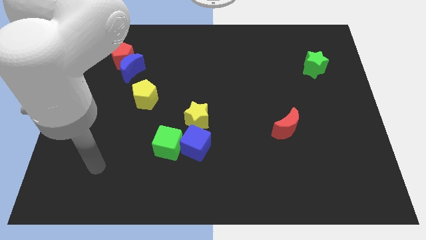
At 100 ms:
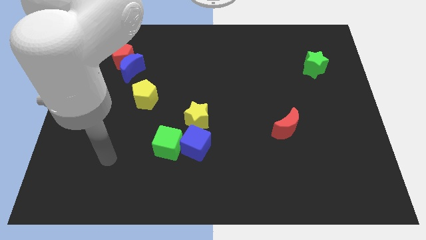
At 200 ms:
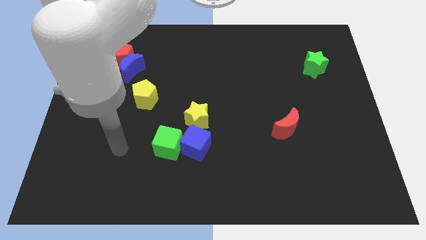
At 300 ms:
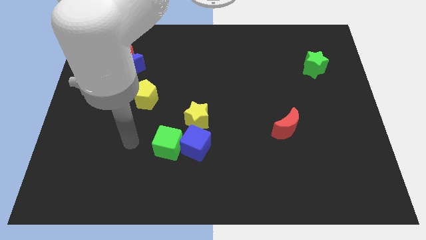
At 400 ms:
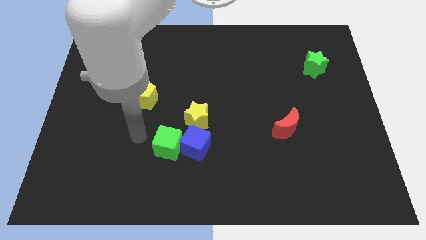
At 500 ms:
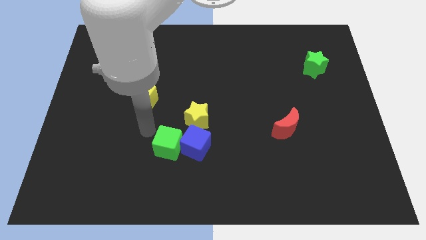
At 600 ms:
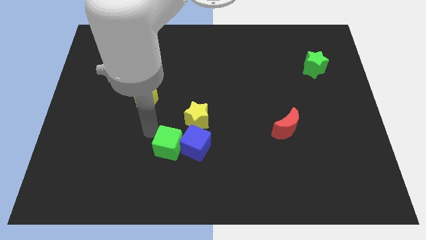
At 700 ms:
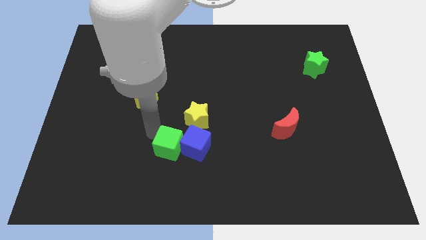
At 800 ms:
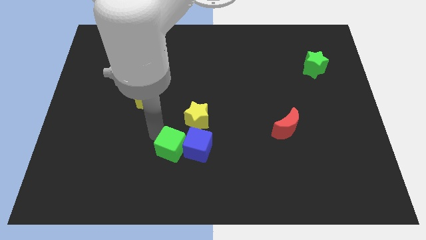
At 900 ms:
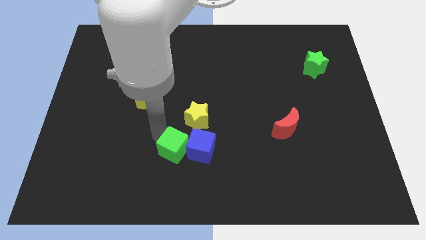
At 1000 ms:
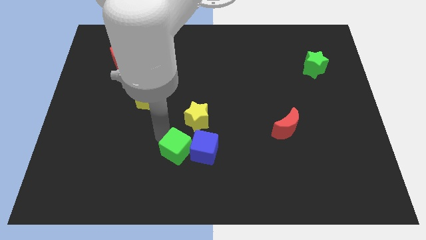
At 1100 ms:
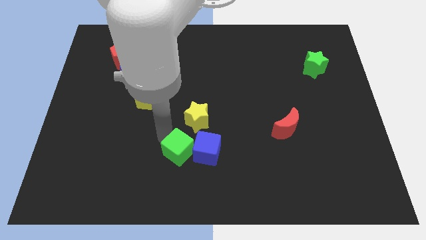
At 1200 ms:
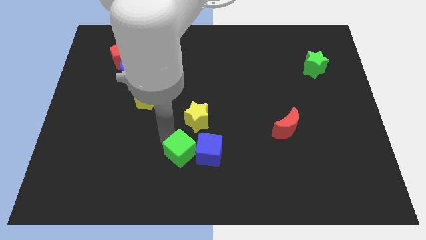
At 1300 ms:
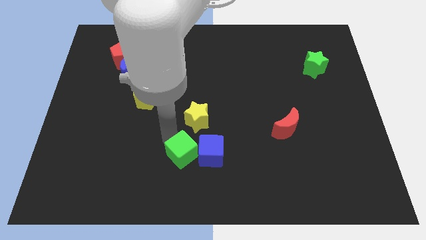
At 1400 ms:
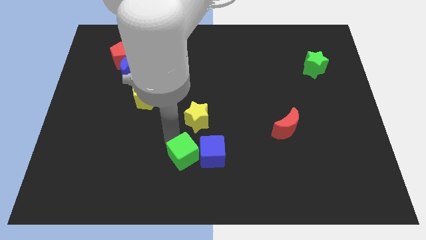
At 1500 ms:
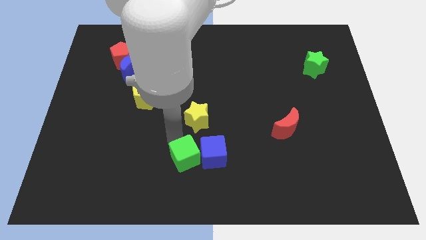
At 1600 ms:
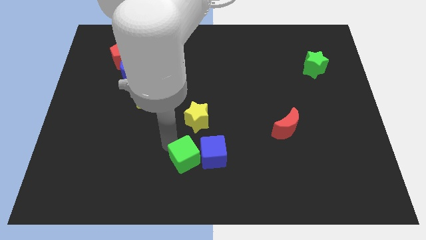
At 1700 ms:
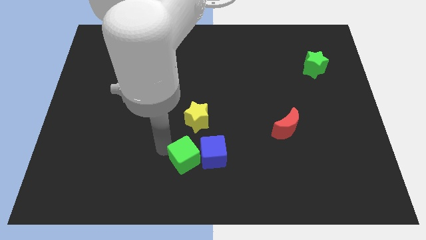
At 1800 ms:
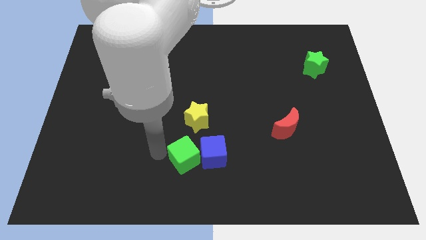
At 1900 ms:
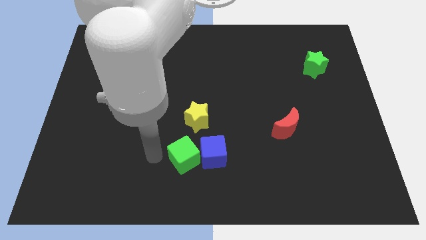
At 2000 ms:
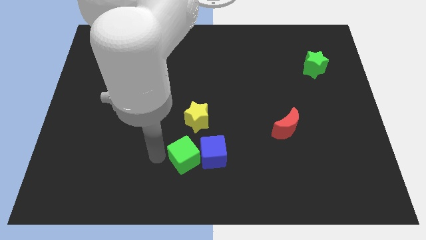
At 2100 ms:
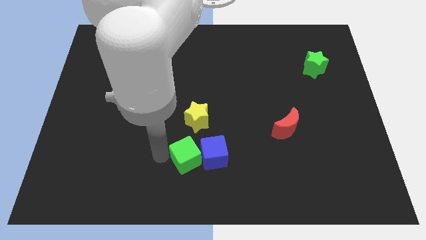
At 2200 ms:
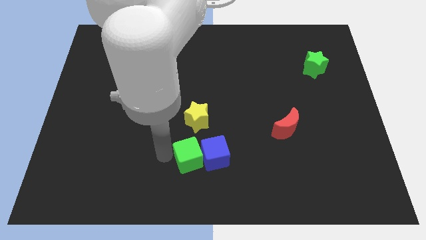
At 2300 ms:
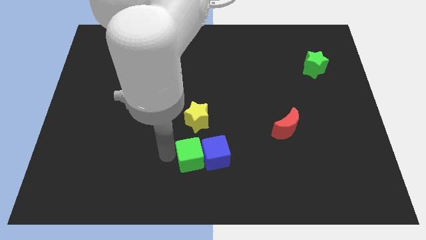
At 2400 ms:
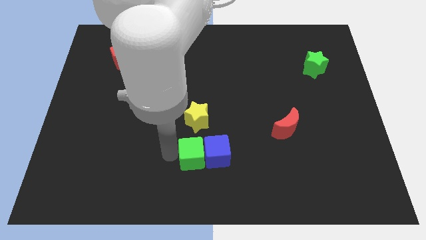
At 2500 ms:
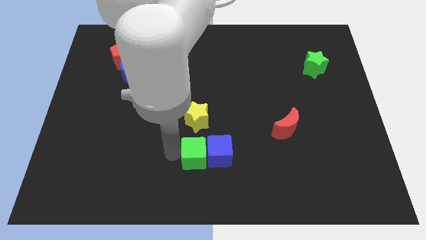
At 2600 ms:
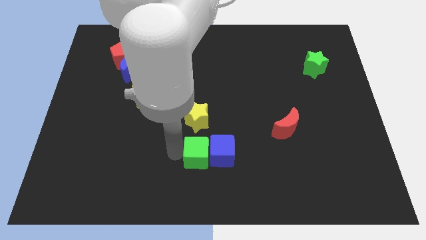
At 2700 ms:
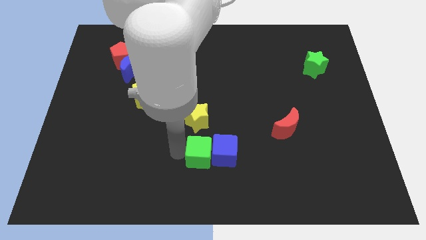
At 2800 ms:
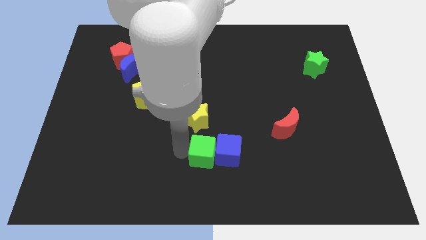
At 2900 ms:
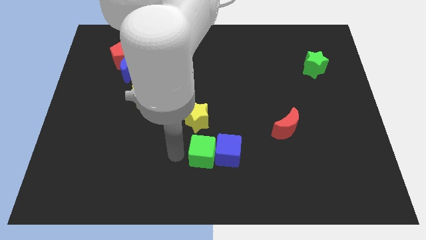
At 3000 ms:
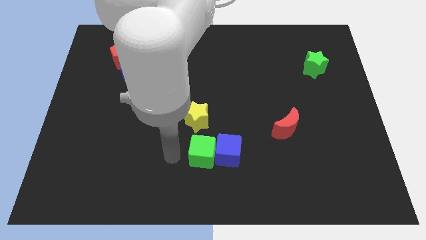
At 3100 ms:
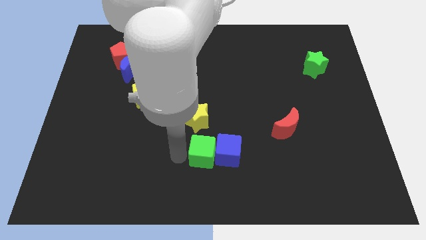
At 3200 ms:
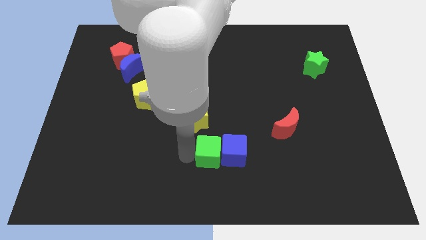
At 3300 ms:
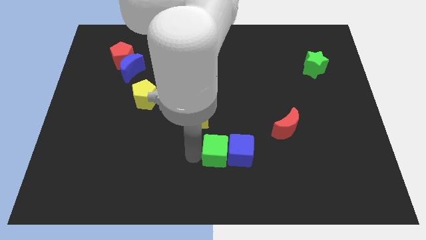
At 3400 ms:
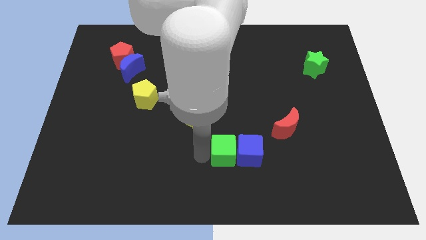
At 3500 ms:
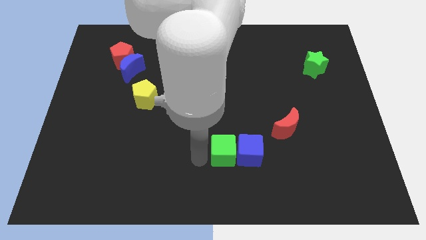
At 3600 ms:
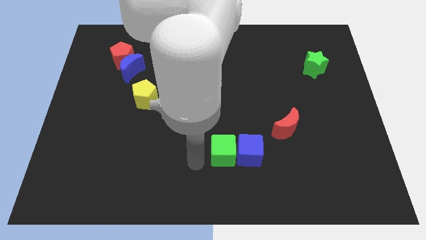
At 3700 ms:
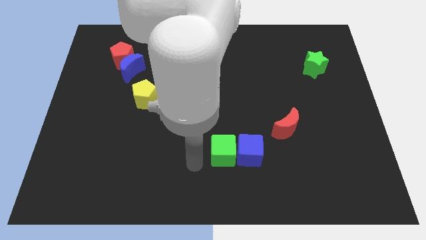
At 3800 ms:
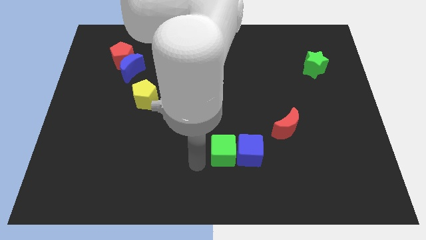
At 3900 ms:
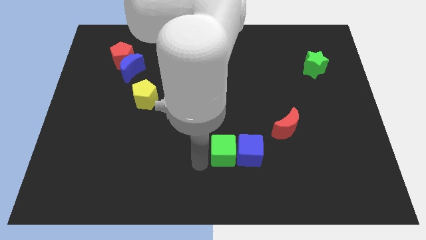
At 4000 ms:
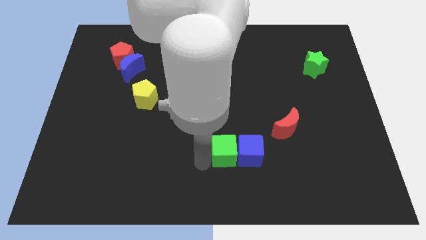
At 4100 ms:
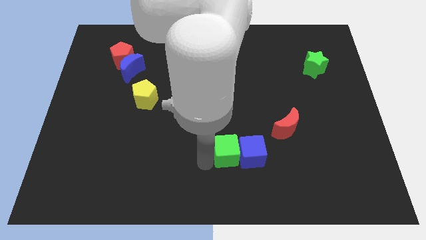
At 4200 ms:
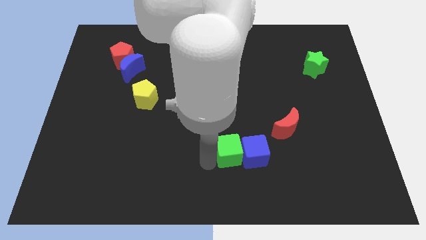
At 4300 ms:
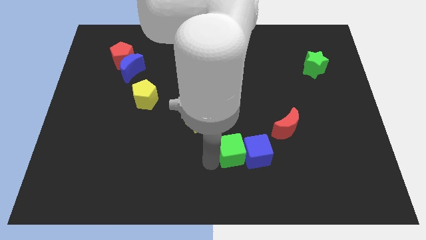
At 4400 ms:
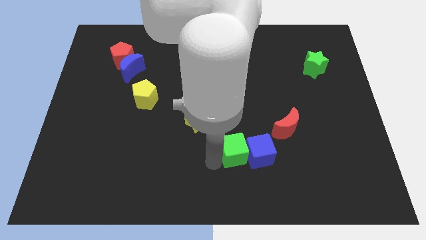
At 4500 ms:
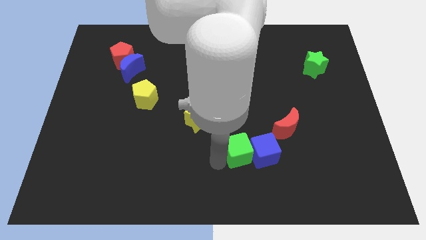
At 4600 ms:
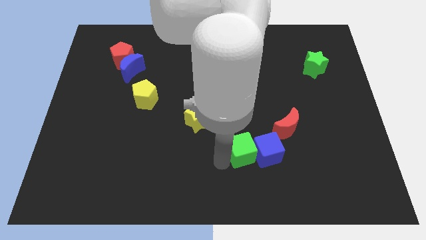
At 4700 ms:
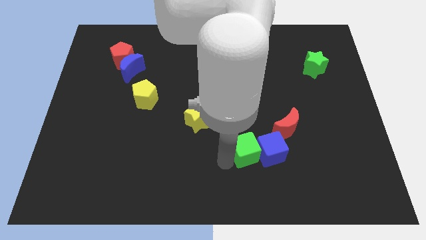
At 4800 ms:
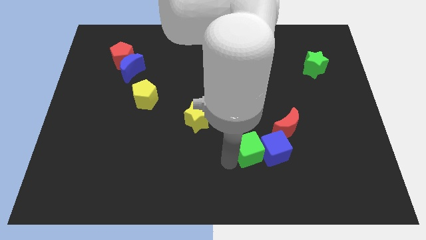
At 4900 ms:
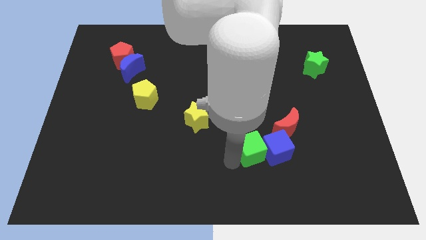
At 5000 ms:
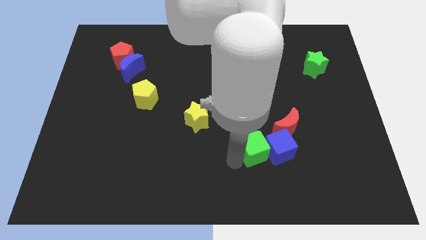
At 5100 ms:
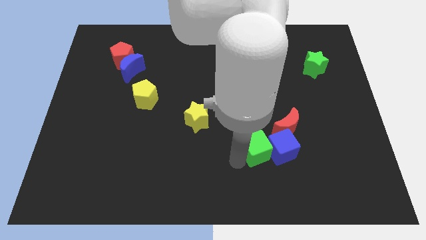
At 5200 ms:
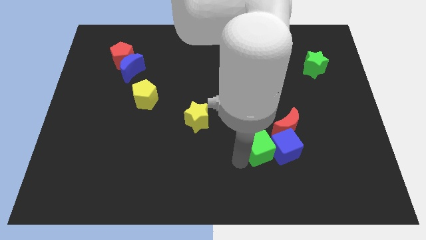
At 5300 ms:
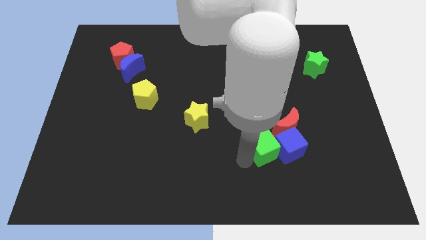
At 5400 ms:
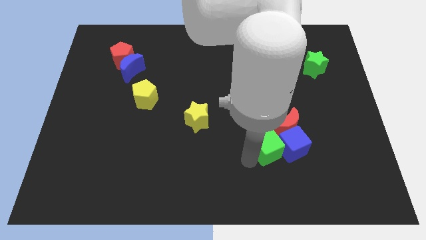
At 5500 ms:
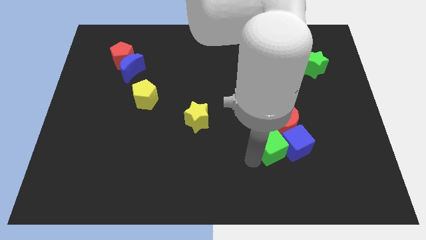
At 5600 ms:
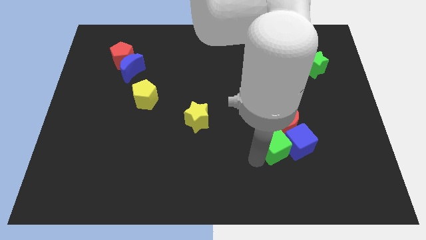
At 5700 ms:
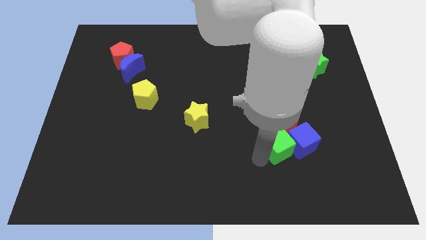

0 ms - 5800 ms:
push the green cube next to the red moon

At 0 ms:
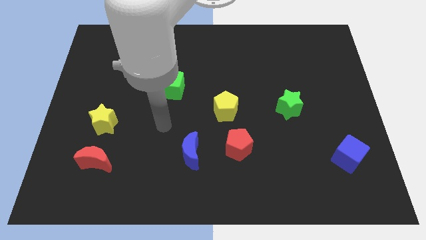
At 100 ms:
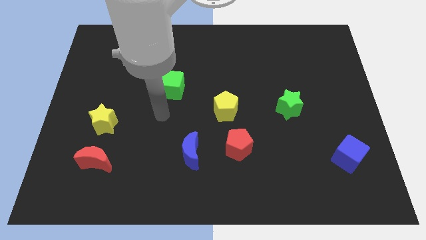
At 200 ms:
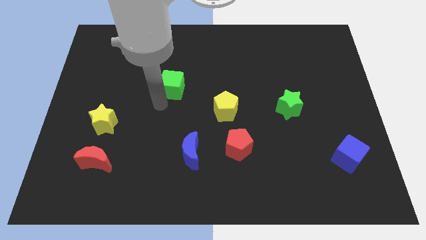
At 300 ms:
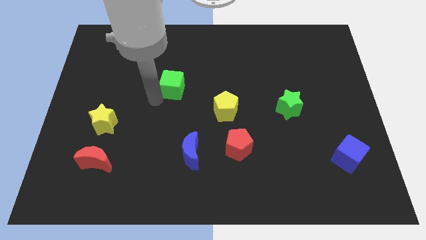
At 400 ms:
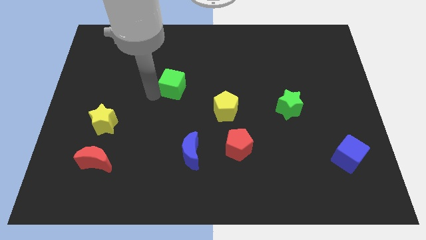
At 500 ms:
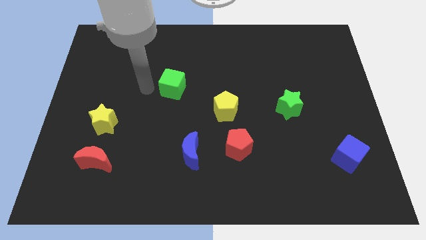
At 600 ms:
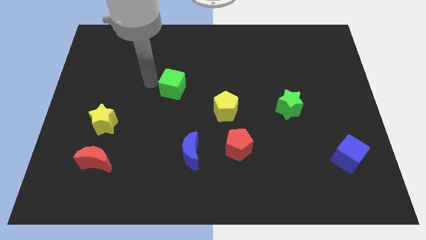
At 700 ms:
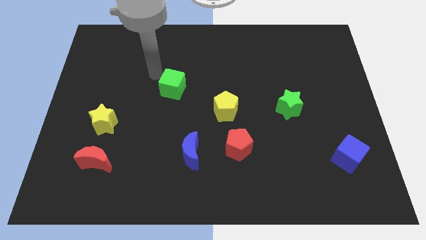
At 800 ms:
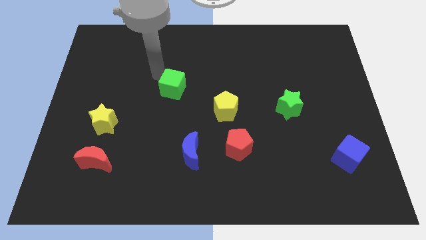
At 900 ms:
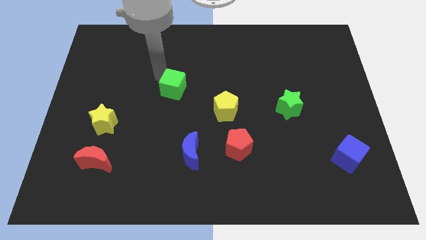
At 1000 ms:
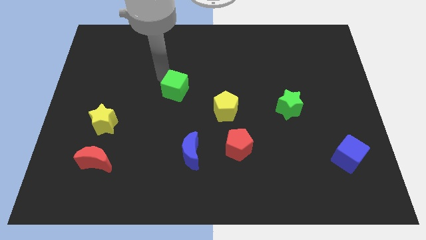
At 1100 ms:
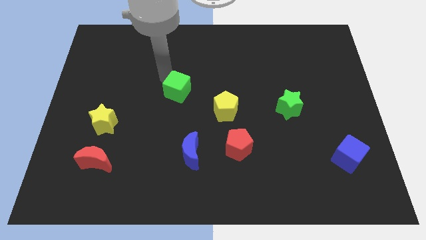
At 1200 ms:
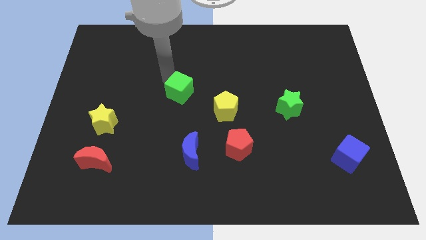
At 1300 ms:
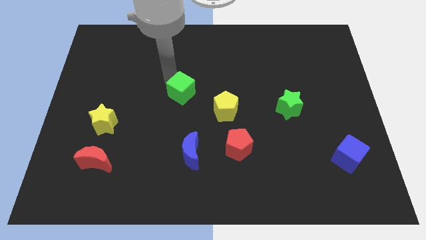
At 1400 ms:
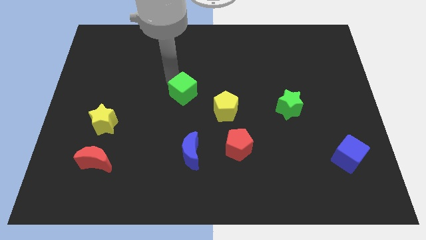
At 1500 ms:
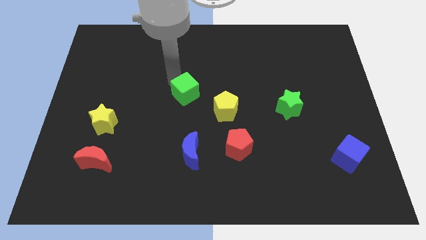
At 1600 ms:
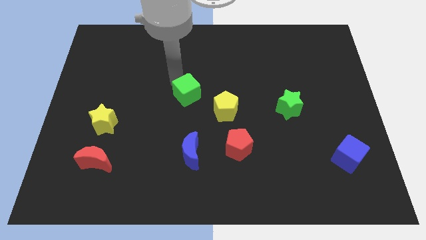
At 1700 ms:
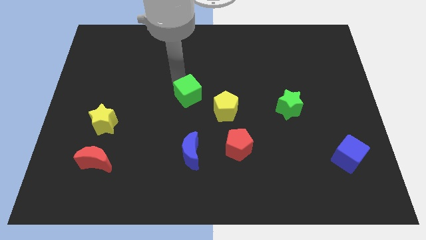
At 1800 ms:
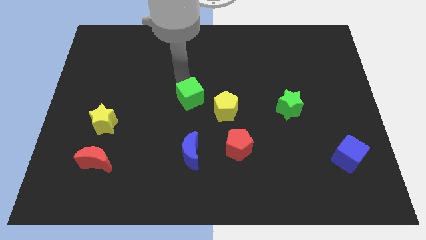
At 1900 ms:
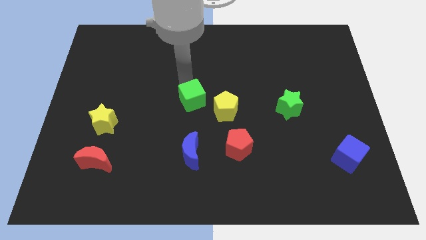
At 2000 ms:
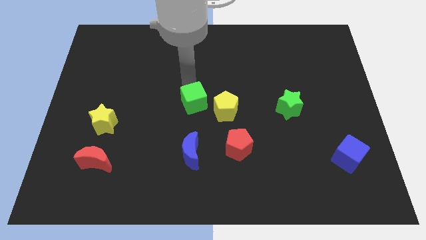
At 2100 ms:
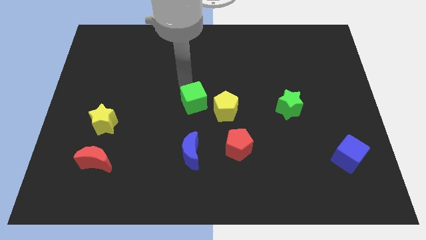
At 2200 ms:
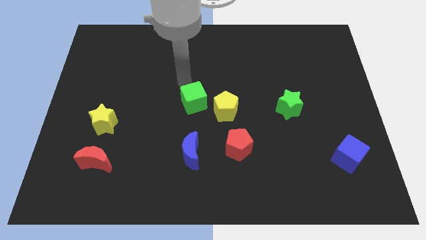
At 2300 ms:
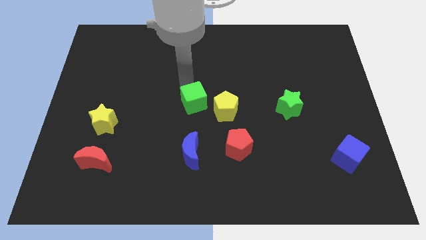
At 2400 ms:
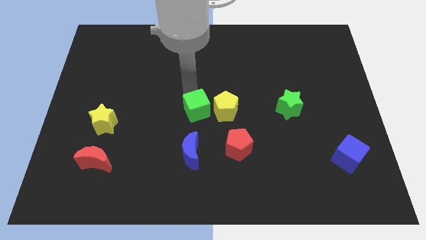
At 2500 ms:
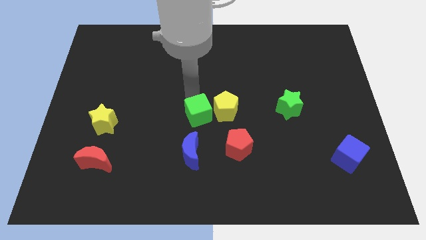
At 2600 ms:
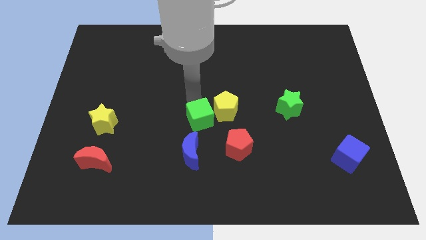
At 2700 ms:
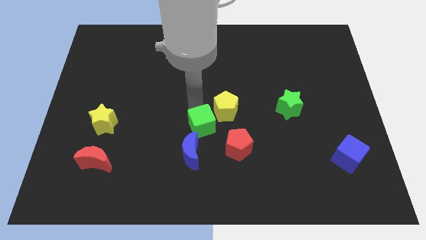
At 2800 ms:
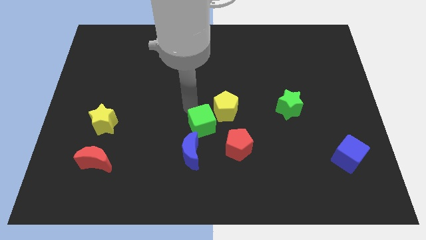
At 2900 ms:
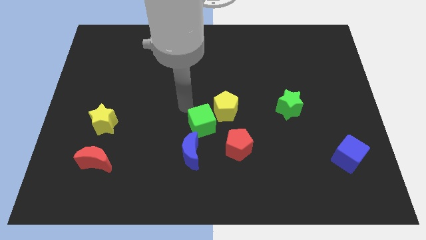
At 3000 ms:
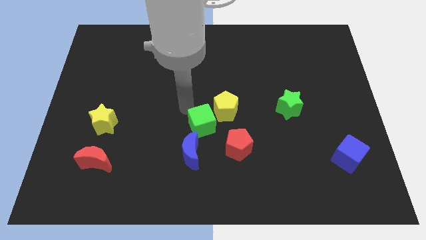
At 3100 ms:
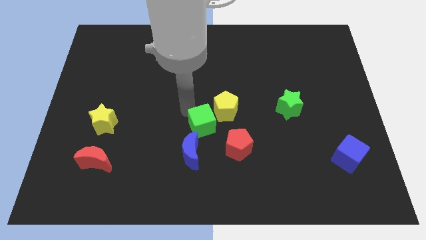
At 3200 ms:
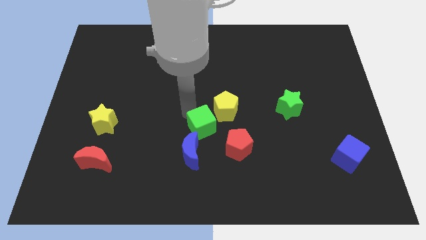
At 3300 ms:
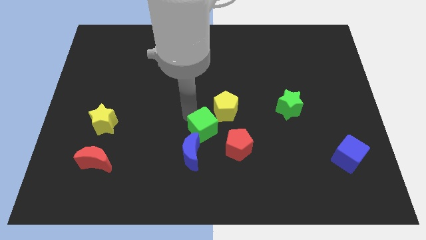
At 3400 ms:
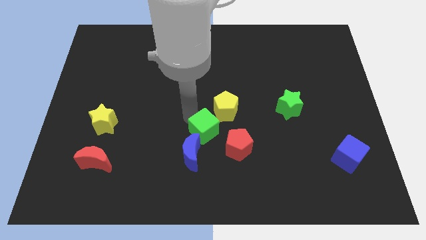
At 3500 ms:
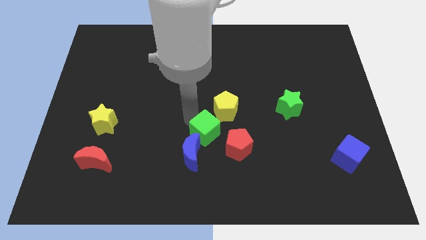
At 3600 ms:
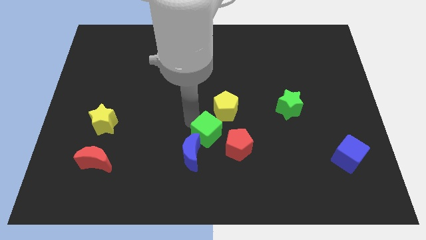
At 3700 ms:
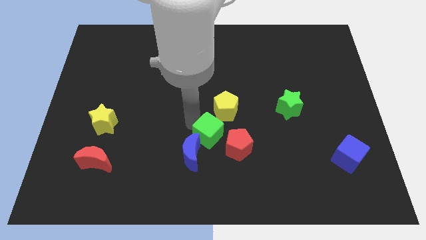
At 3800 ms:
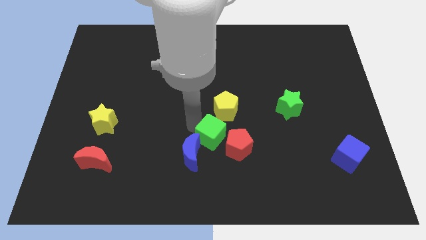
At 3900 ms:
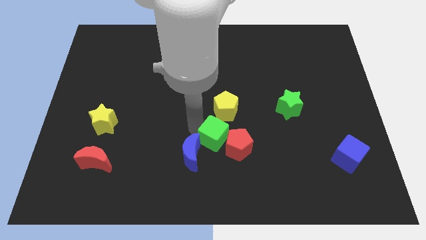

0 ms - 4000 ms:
move the green cube next to the red pentagon
